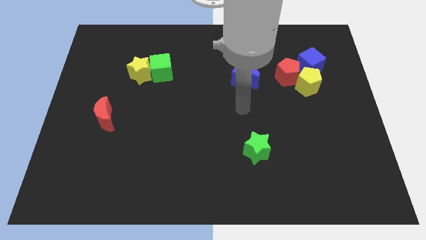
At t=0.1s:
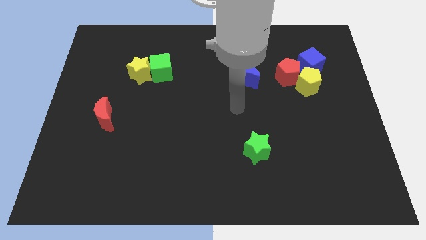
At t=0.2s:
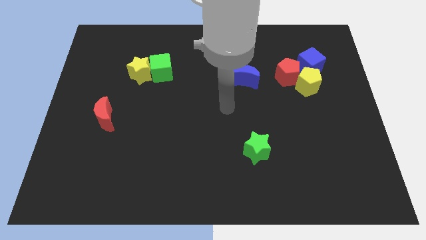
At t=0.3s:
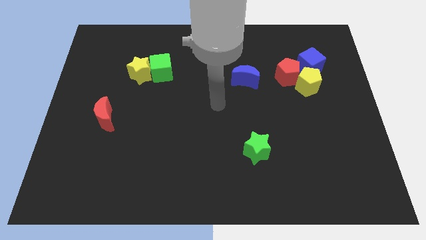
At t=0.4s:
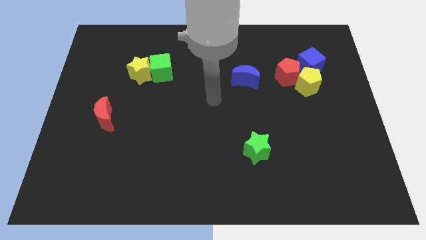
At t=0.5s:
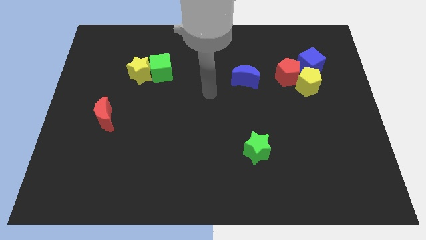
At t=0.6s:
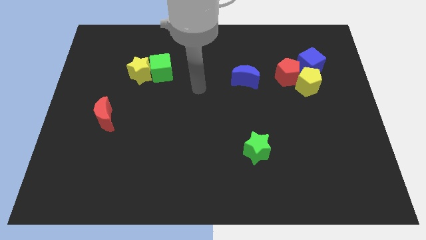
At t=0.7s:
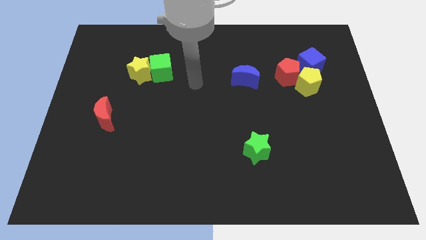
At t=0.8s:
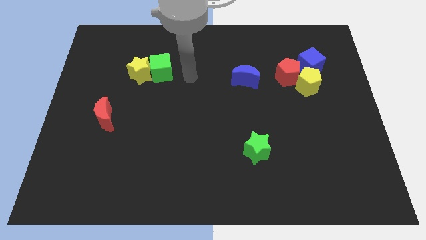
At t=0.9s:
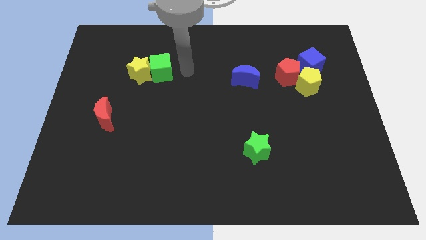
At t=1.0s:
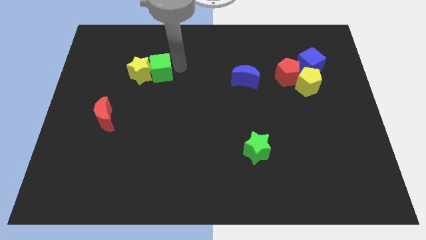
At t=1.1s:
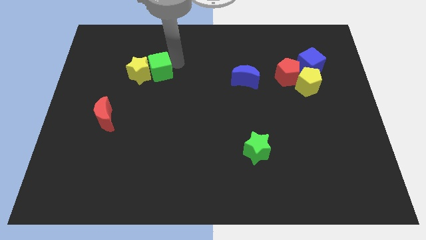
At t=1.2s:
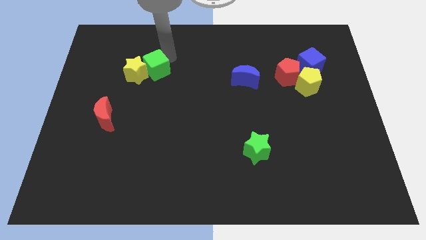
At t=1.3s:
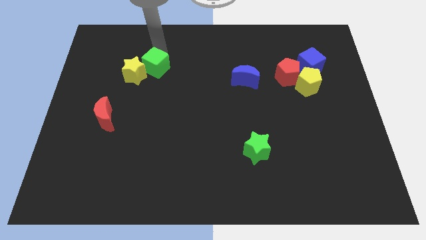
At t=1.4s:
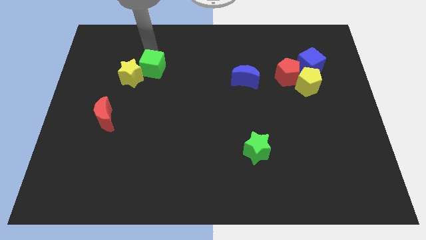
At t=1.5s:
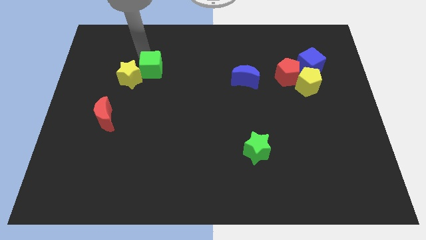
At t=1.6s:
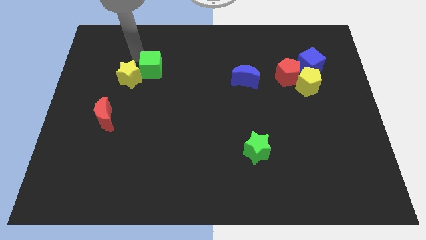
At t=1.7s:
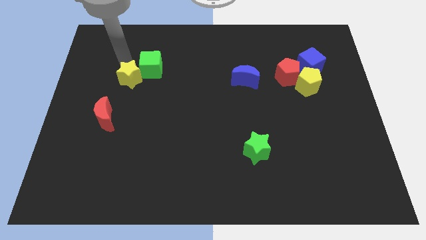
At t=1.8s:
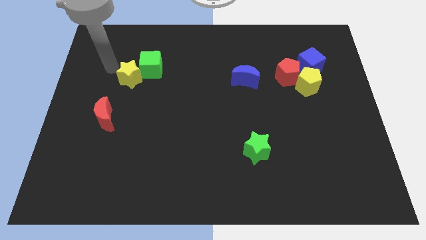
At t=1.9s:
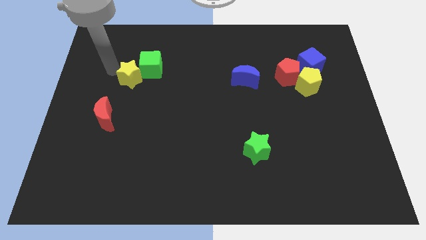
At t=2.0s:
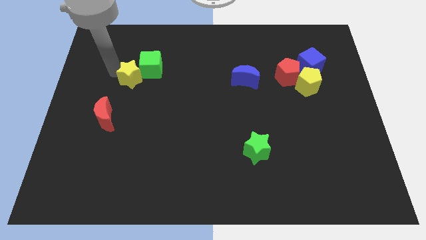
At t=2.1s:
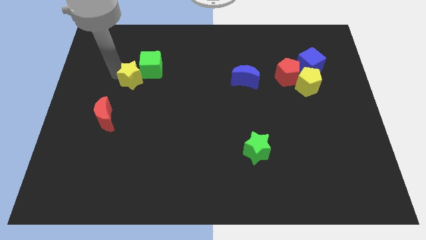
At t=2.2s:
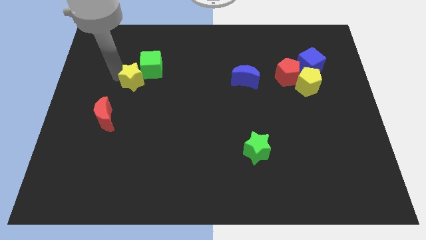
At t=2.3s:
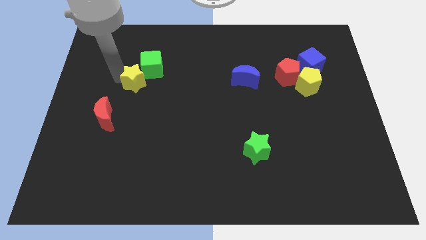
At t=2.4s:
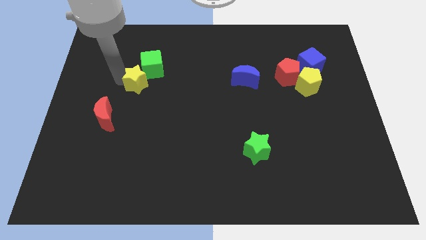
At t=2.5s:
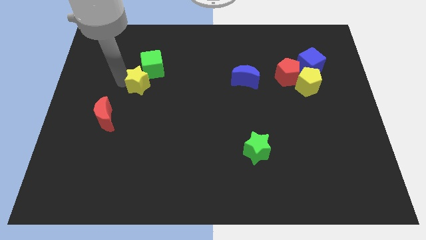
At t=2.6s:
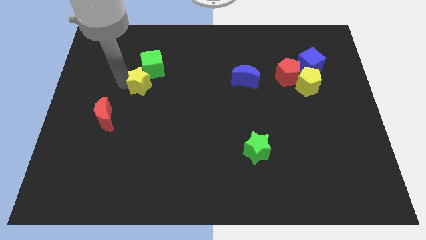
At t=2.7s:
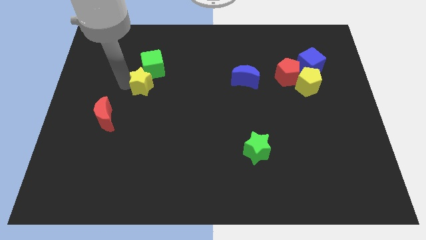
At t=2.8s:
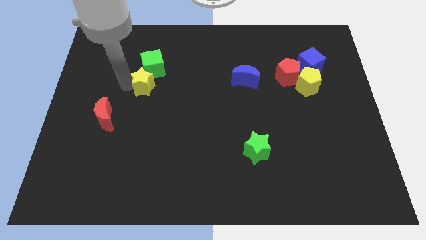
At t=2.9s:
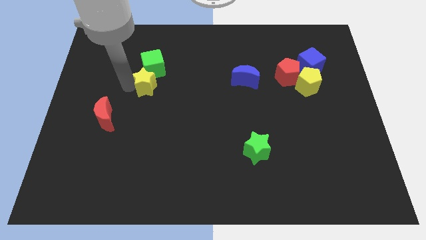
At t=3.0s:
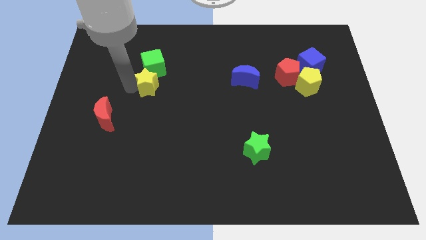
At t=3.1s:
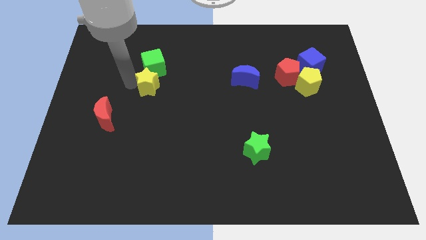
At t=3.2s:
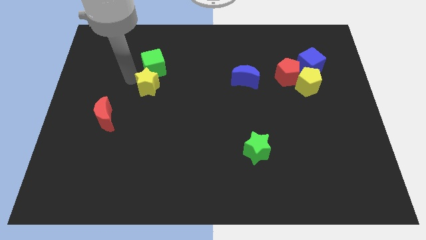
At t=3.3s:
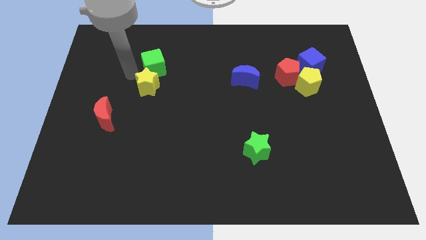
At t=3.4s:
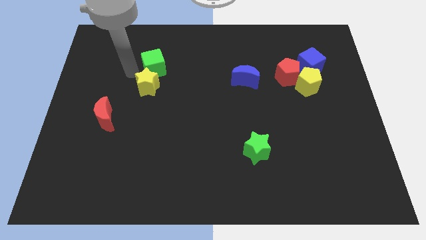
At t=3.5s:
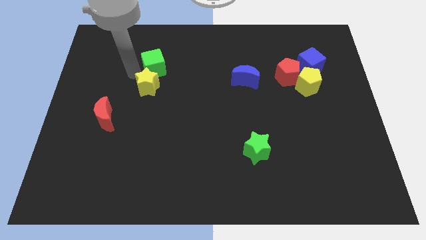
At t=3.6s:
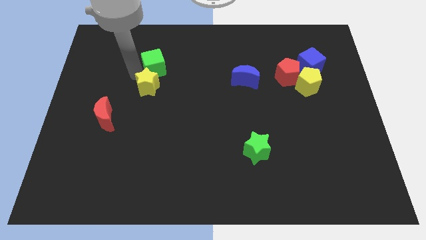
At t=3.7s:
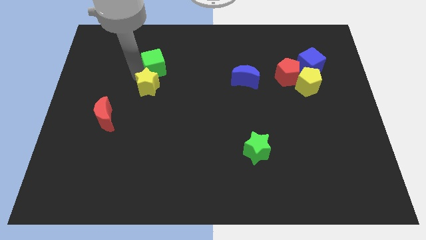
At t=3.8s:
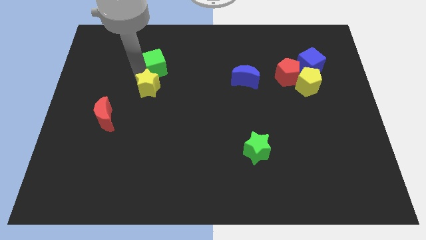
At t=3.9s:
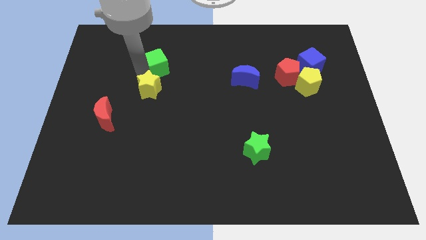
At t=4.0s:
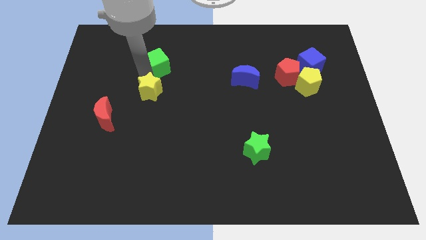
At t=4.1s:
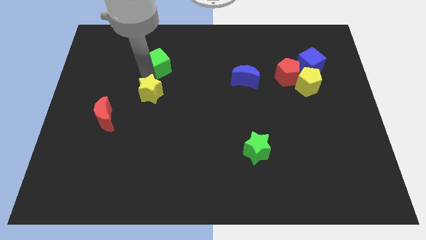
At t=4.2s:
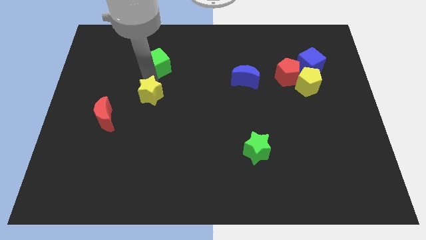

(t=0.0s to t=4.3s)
push the yellow star a bit diagonally downwards and right

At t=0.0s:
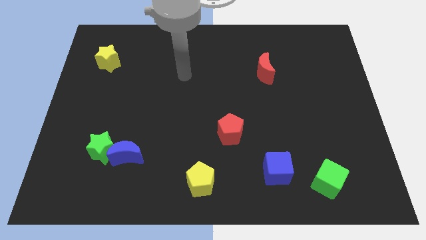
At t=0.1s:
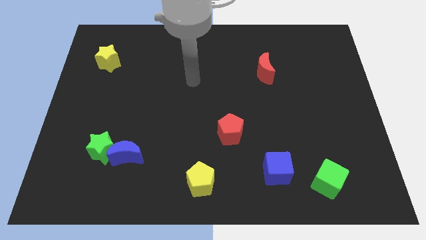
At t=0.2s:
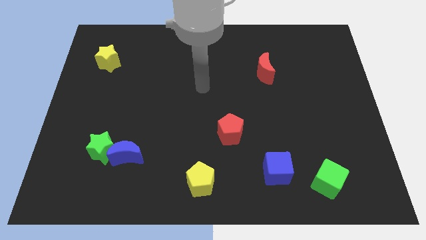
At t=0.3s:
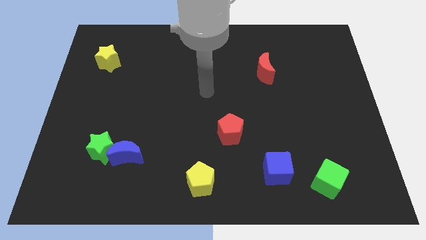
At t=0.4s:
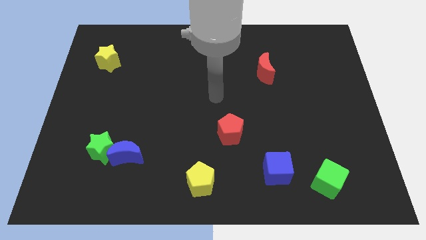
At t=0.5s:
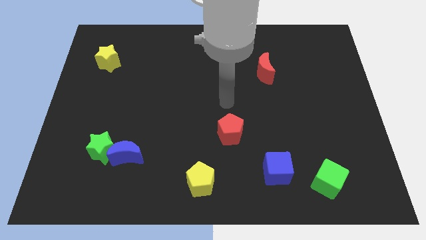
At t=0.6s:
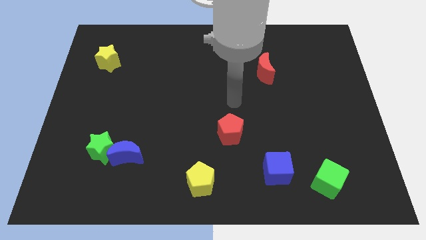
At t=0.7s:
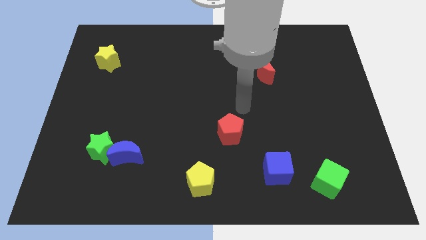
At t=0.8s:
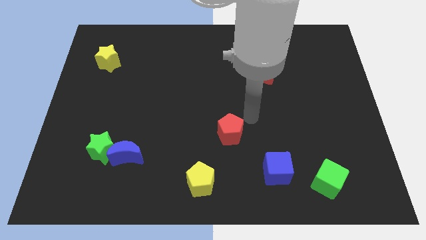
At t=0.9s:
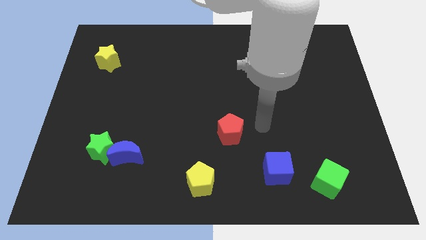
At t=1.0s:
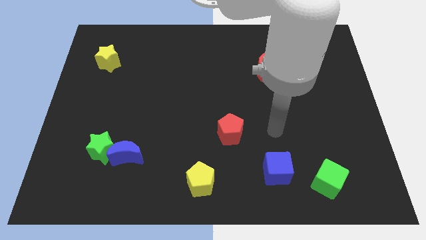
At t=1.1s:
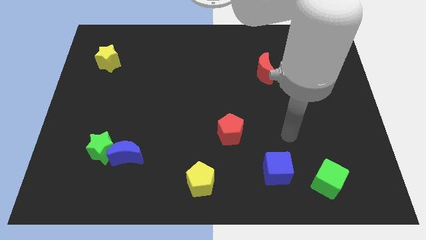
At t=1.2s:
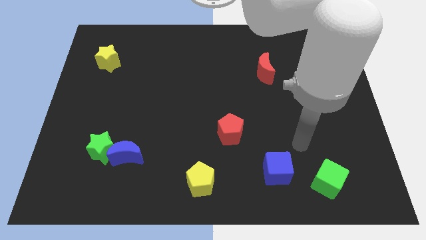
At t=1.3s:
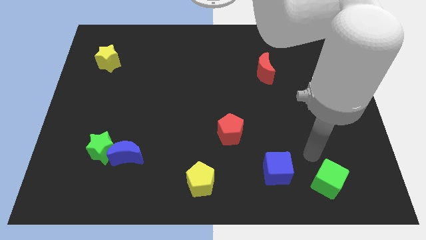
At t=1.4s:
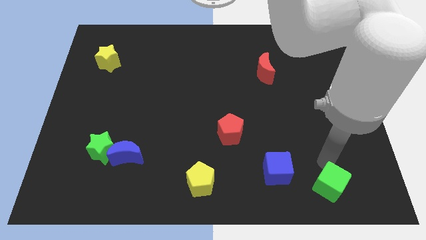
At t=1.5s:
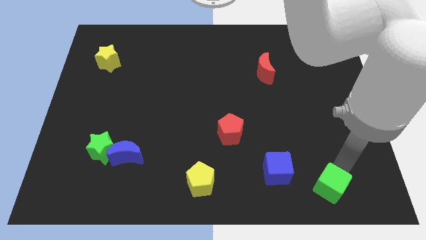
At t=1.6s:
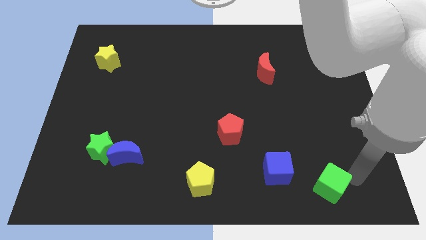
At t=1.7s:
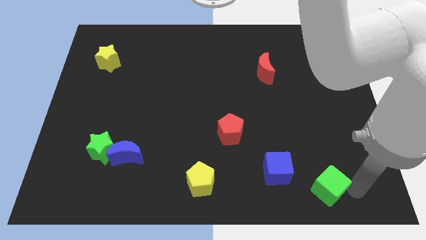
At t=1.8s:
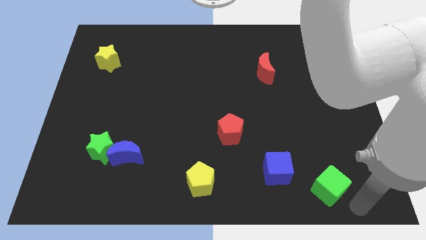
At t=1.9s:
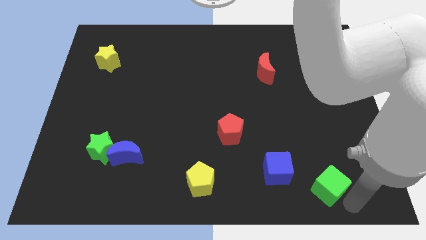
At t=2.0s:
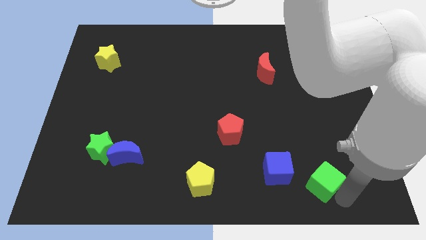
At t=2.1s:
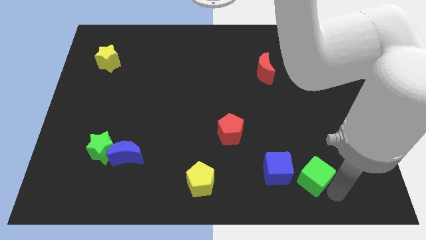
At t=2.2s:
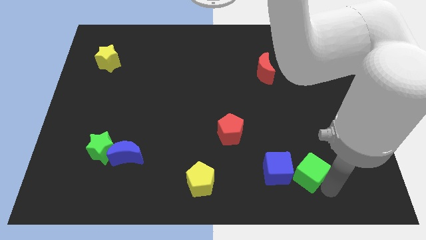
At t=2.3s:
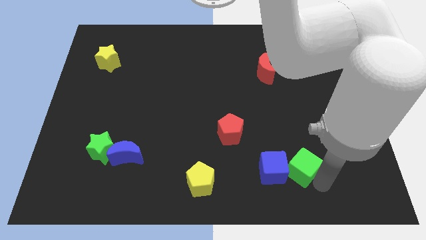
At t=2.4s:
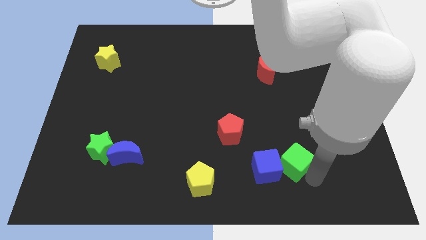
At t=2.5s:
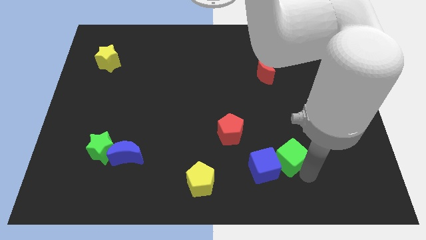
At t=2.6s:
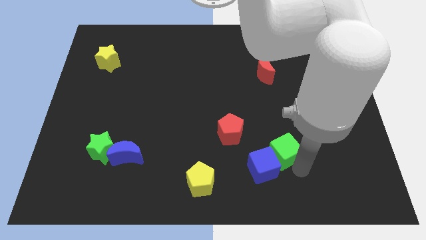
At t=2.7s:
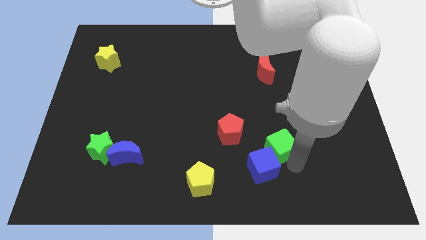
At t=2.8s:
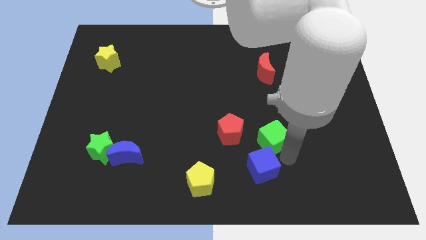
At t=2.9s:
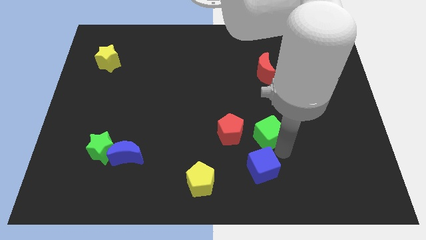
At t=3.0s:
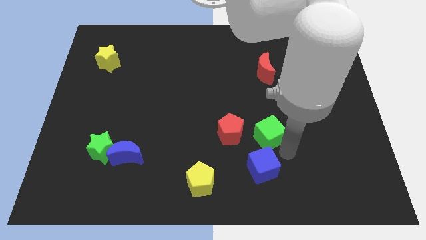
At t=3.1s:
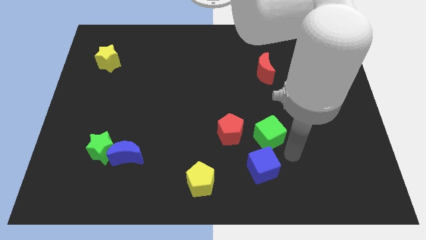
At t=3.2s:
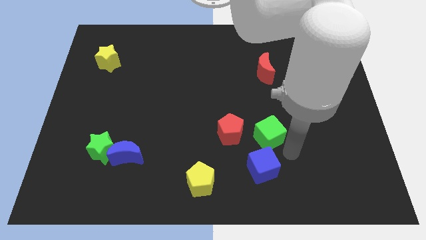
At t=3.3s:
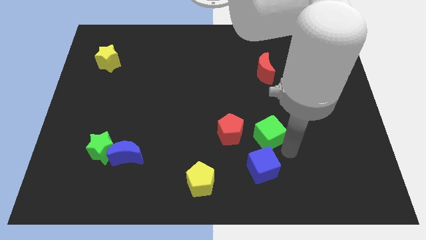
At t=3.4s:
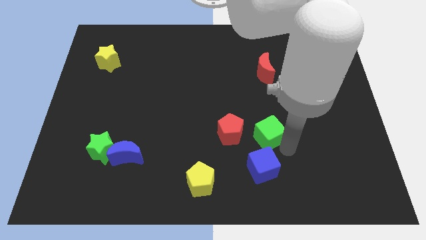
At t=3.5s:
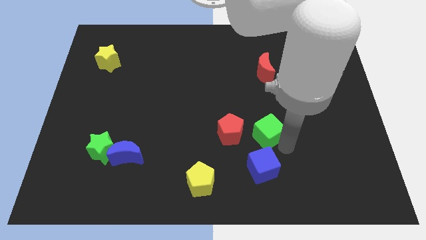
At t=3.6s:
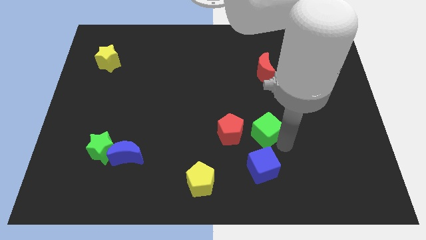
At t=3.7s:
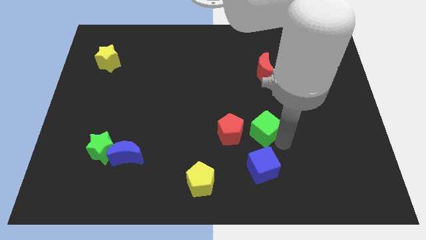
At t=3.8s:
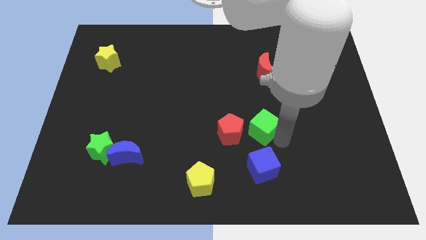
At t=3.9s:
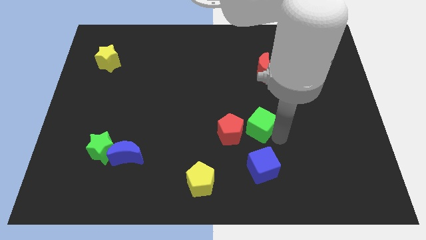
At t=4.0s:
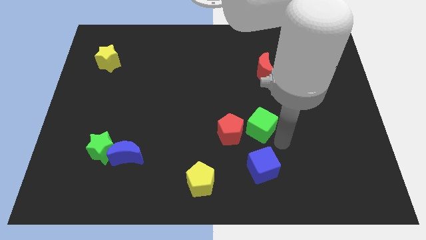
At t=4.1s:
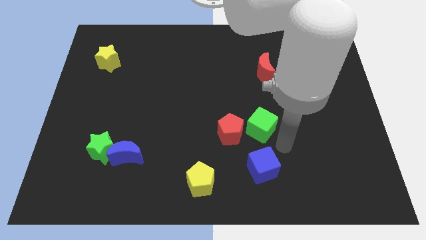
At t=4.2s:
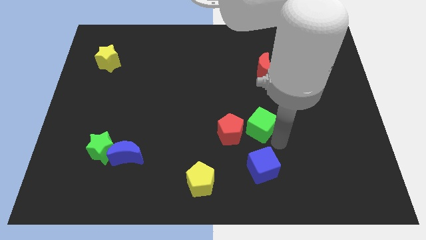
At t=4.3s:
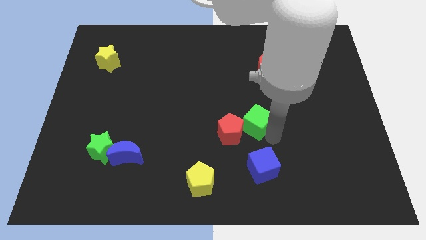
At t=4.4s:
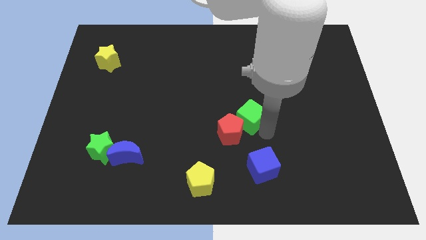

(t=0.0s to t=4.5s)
slide the green cube up and then left
